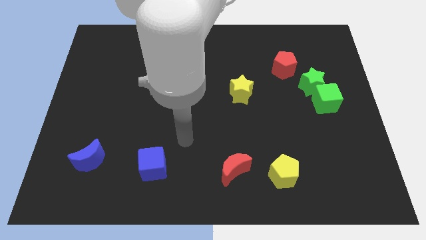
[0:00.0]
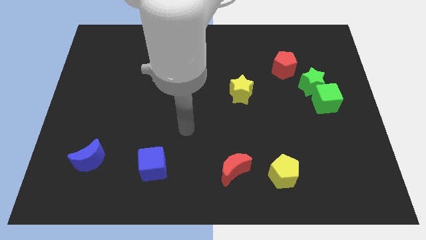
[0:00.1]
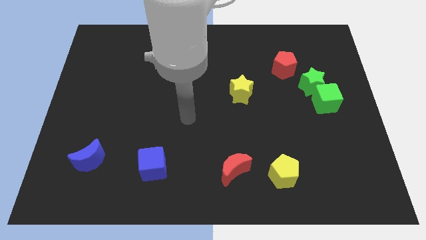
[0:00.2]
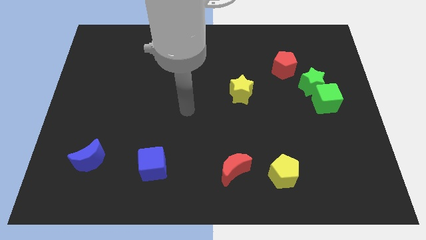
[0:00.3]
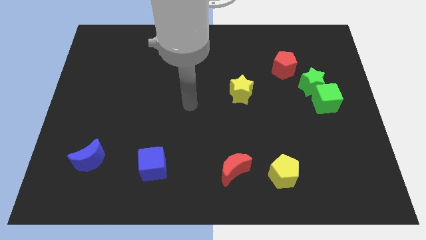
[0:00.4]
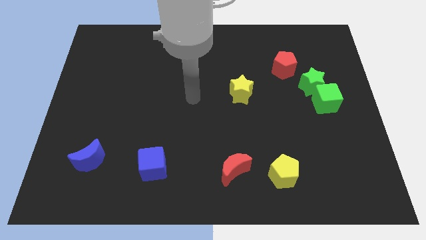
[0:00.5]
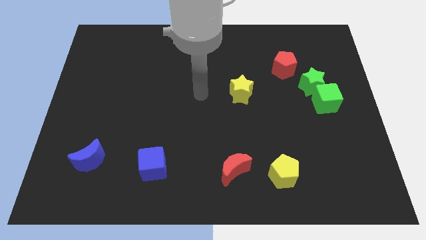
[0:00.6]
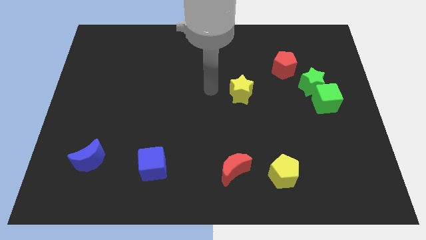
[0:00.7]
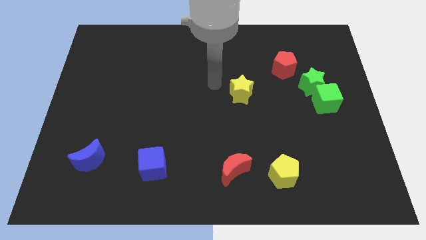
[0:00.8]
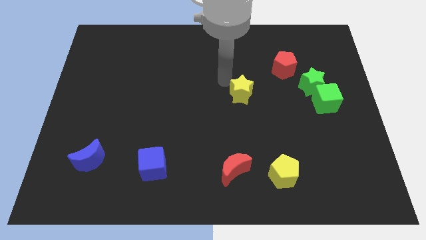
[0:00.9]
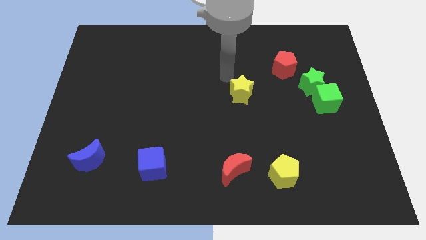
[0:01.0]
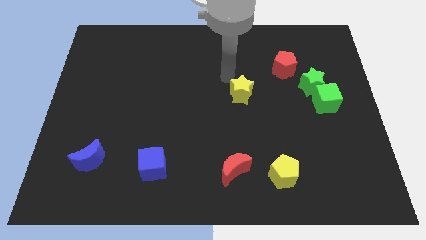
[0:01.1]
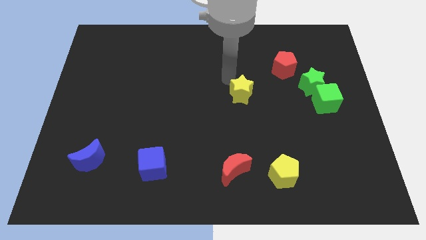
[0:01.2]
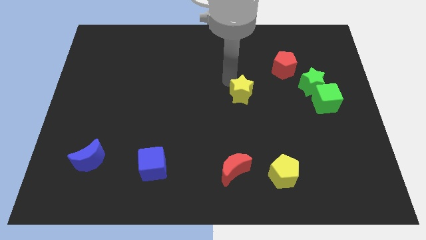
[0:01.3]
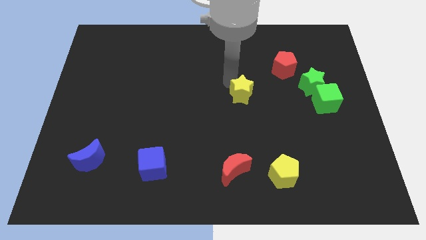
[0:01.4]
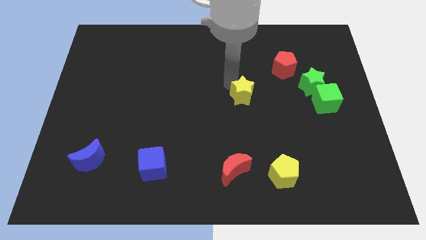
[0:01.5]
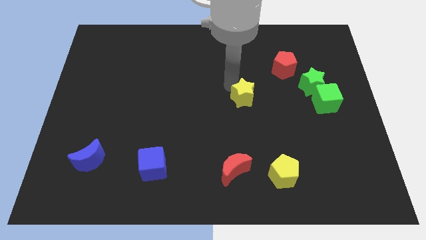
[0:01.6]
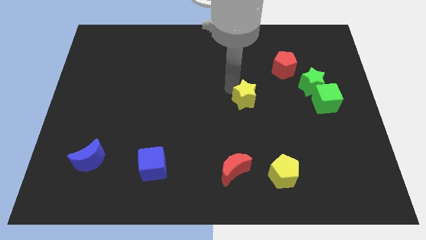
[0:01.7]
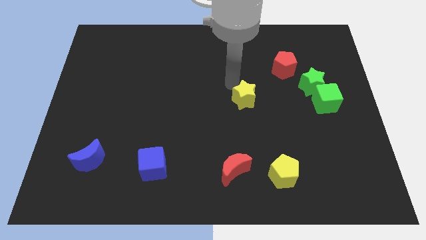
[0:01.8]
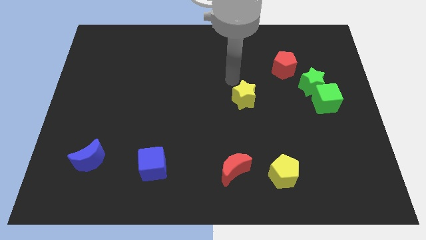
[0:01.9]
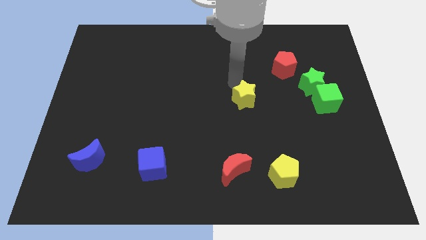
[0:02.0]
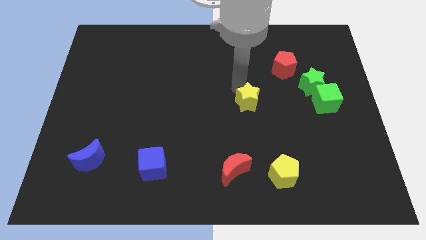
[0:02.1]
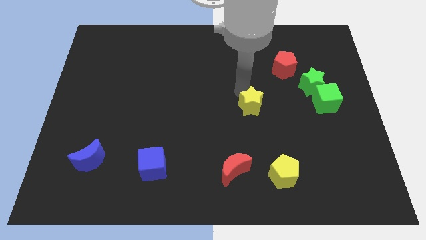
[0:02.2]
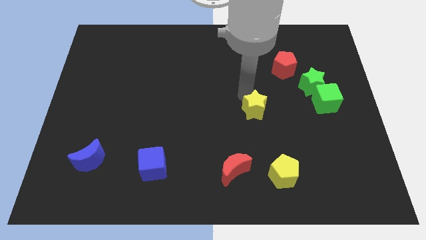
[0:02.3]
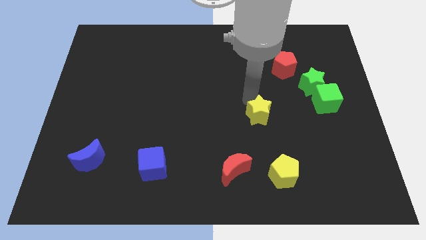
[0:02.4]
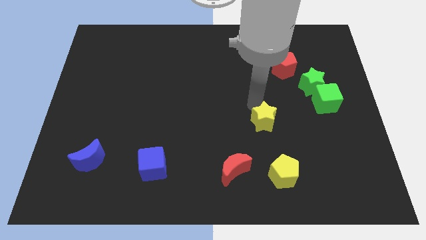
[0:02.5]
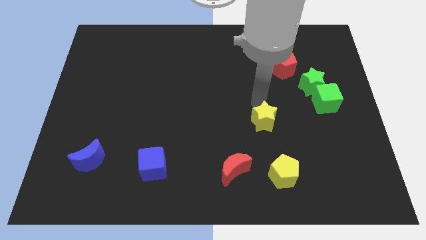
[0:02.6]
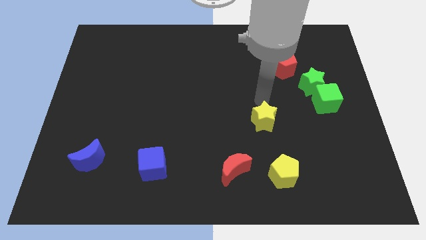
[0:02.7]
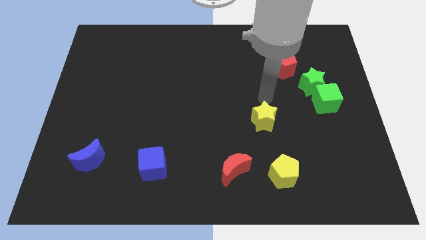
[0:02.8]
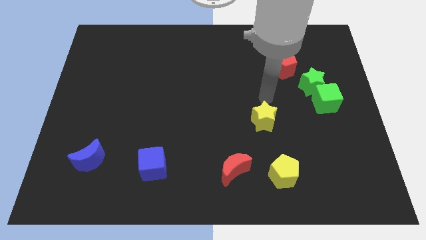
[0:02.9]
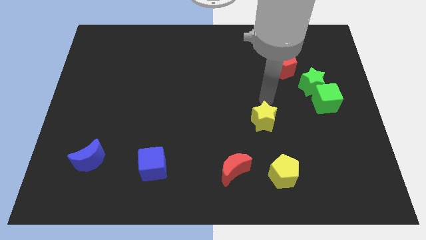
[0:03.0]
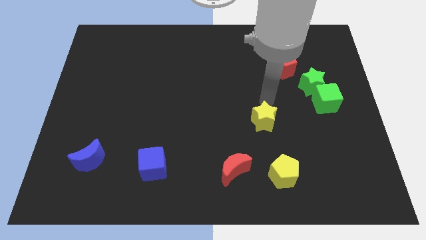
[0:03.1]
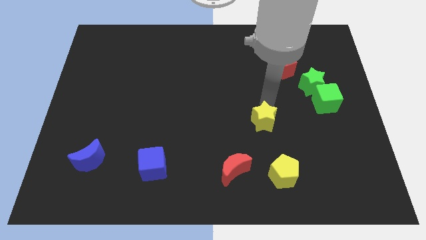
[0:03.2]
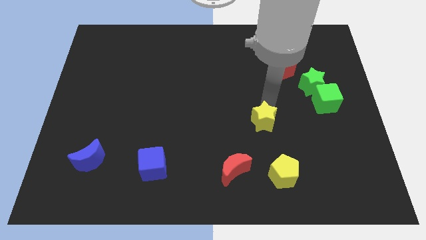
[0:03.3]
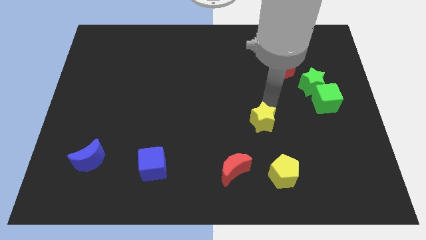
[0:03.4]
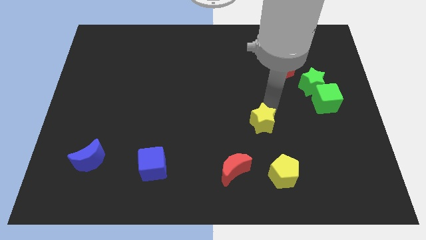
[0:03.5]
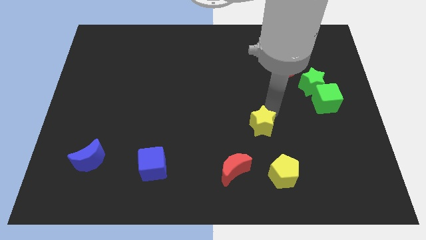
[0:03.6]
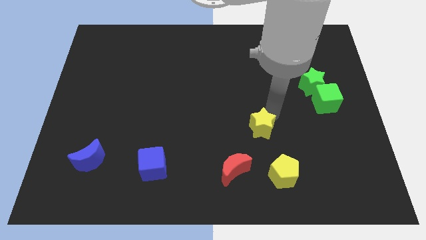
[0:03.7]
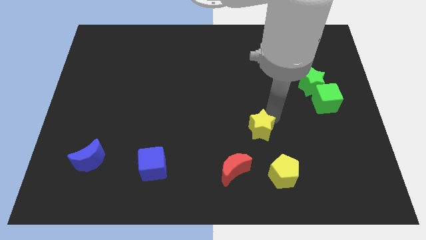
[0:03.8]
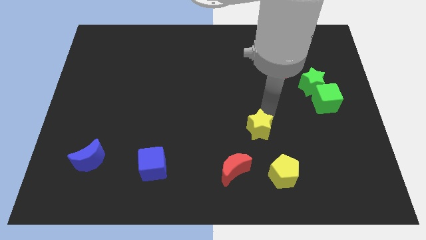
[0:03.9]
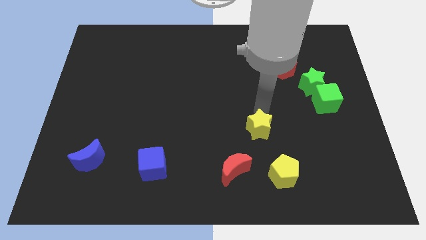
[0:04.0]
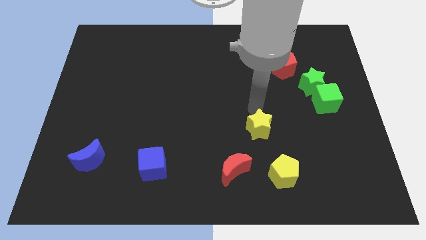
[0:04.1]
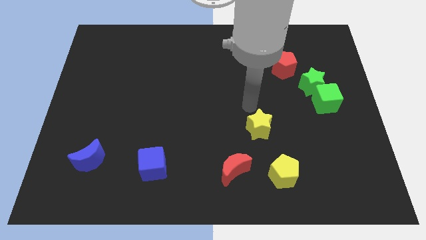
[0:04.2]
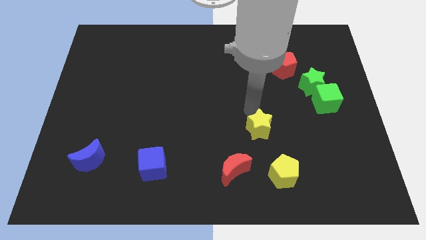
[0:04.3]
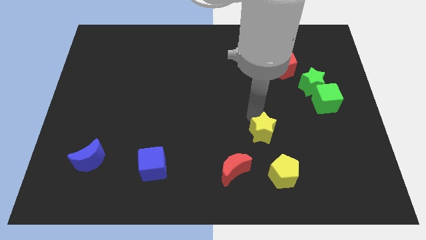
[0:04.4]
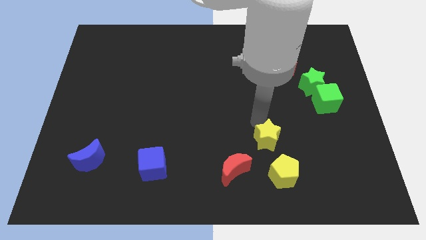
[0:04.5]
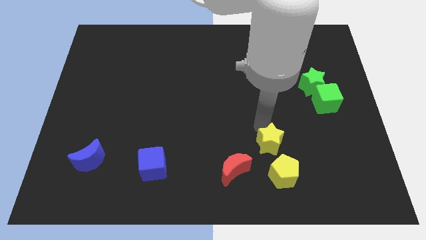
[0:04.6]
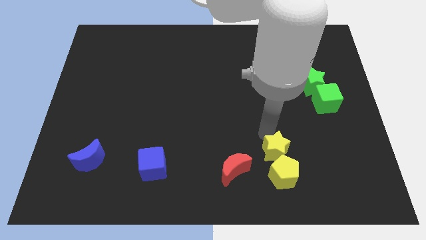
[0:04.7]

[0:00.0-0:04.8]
push the yellow star close to the yellow pentagon

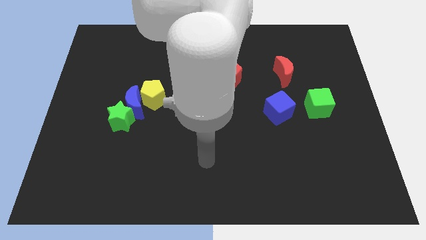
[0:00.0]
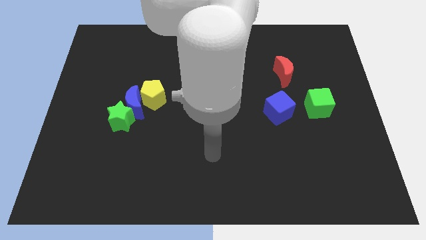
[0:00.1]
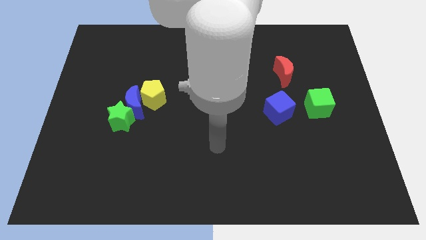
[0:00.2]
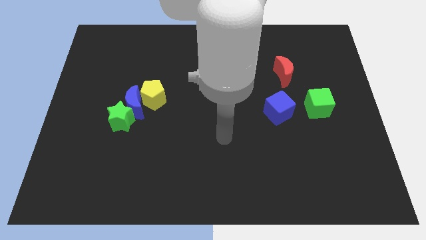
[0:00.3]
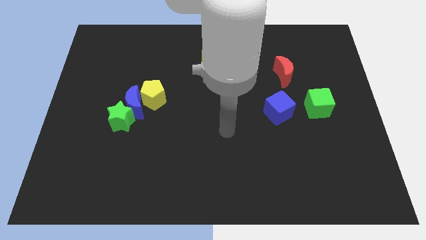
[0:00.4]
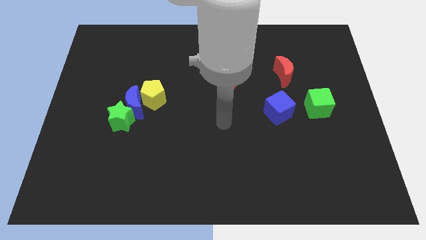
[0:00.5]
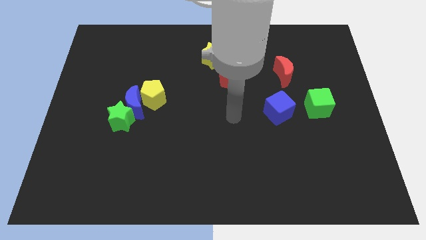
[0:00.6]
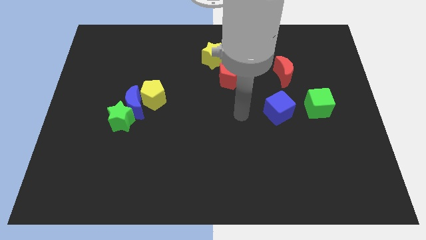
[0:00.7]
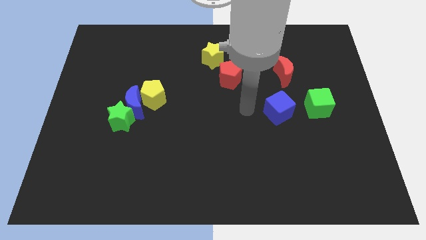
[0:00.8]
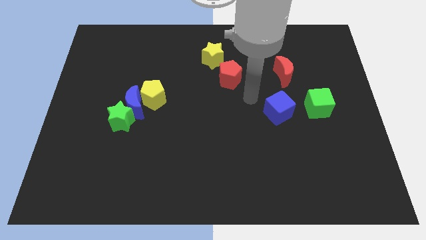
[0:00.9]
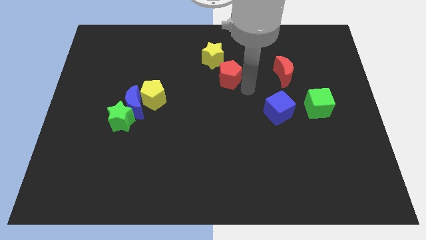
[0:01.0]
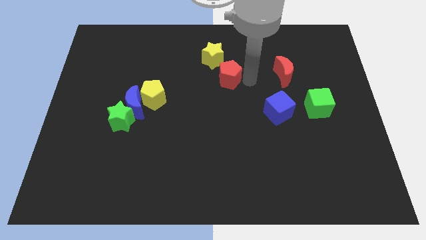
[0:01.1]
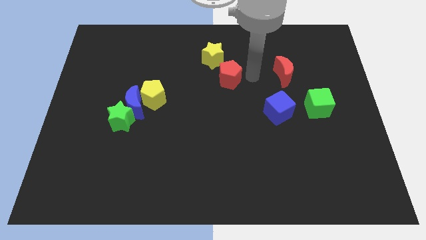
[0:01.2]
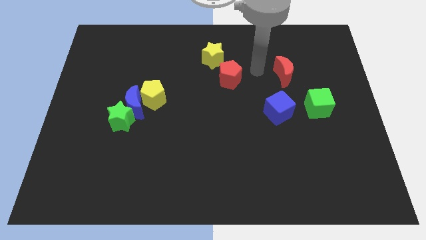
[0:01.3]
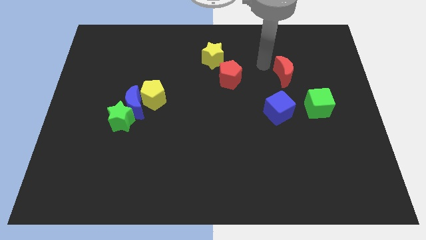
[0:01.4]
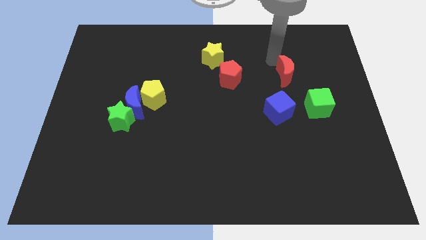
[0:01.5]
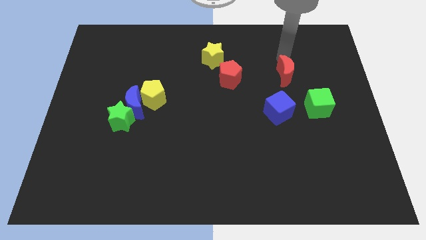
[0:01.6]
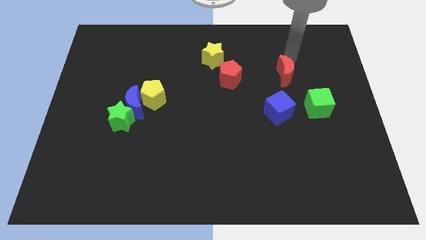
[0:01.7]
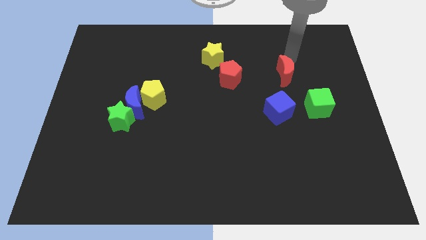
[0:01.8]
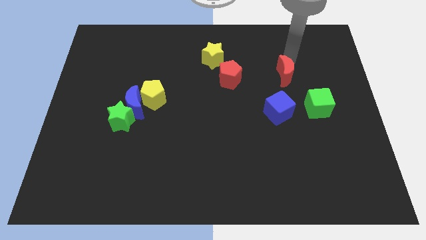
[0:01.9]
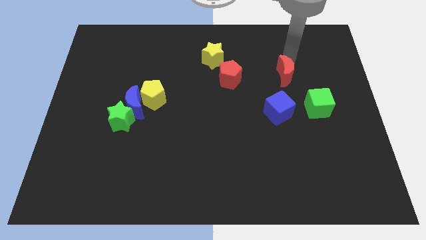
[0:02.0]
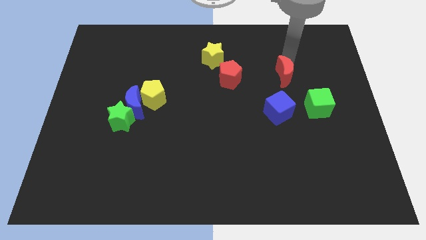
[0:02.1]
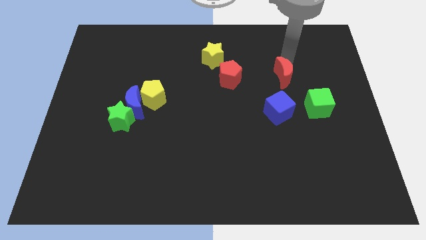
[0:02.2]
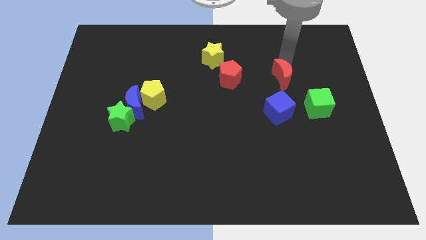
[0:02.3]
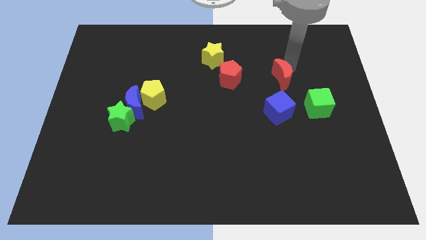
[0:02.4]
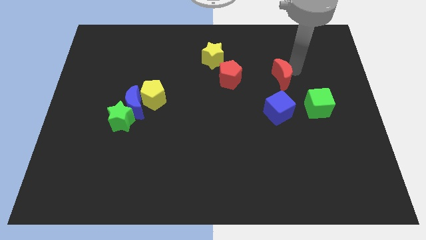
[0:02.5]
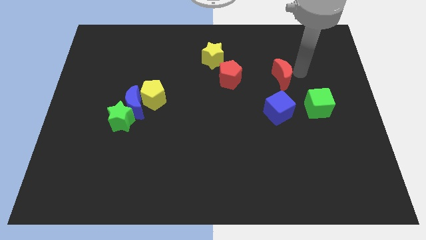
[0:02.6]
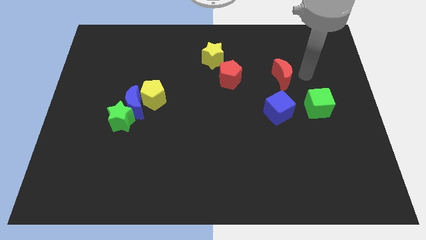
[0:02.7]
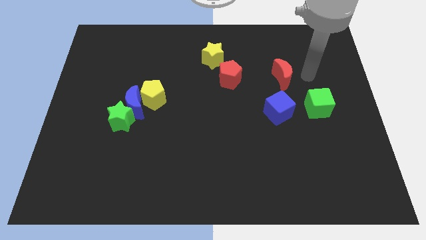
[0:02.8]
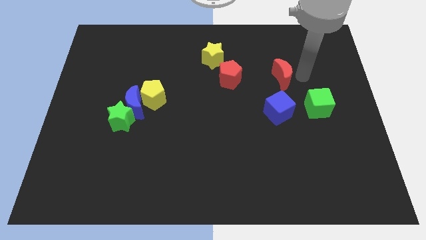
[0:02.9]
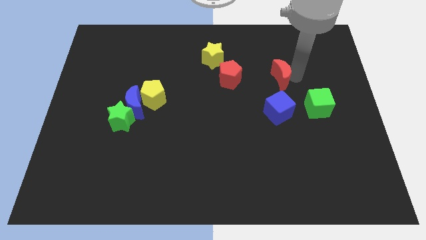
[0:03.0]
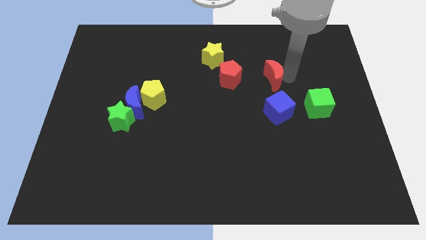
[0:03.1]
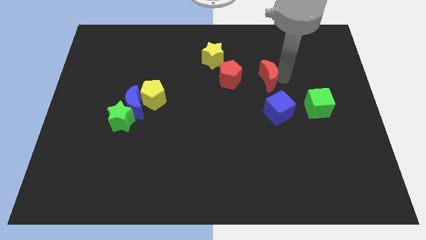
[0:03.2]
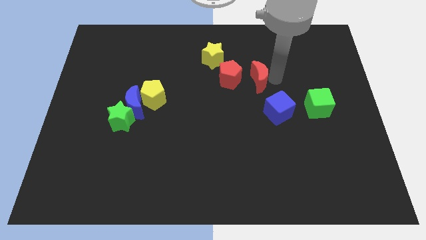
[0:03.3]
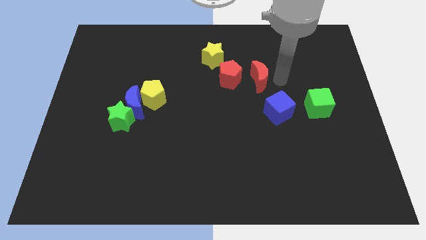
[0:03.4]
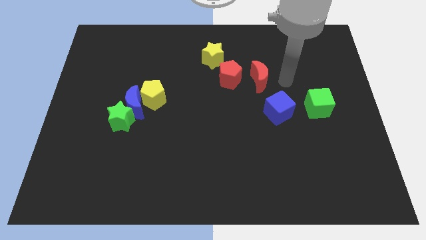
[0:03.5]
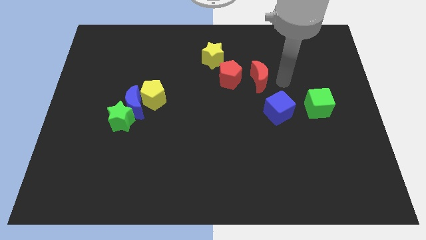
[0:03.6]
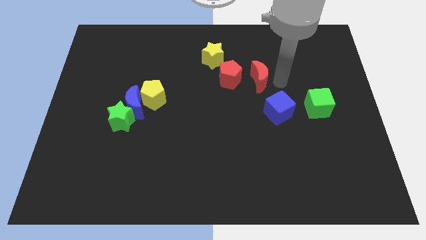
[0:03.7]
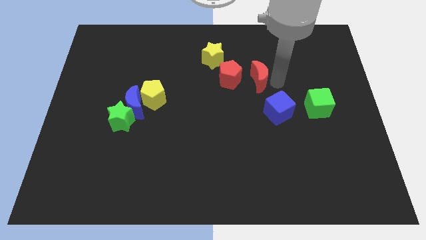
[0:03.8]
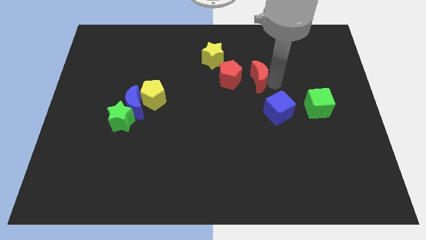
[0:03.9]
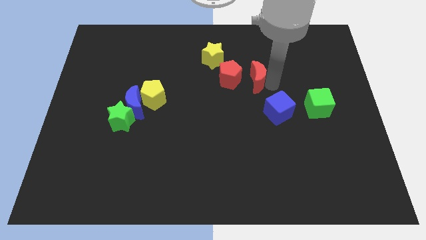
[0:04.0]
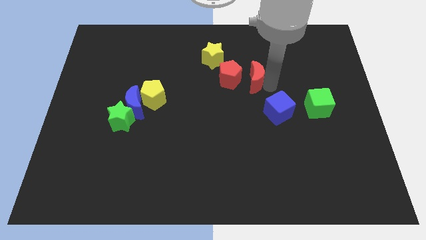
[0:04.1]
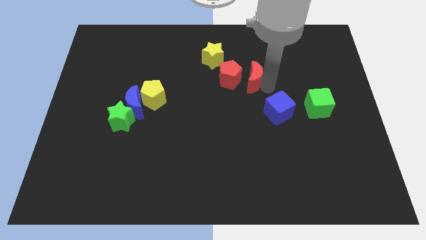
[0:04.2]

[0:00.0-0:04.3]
move the red moon towards the red pentagon
